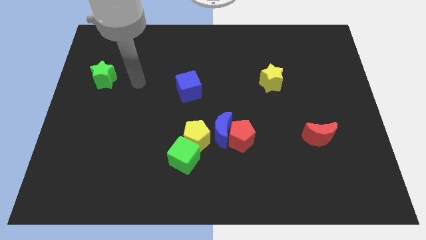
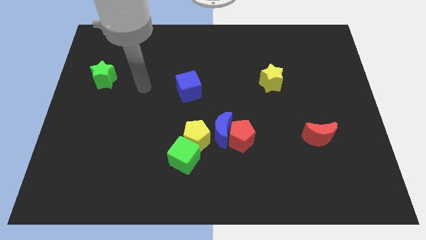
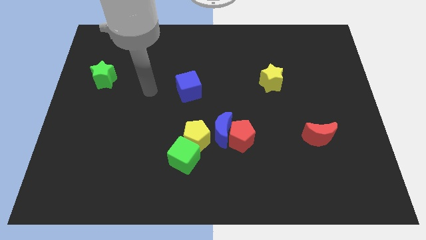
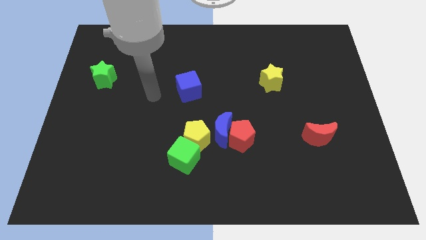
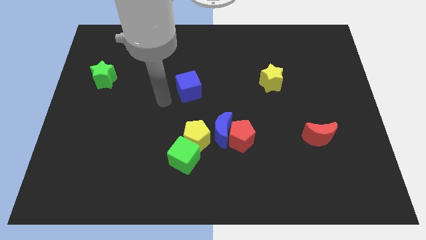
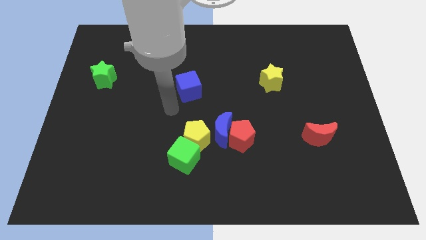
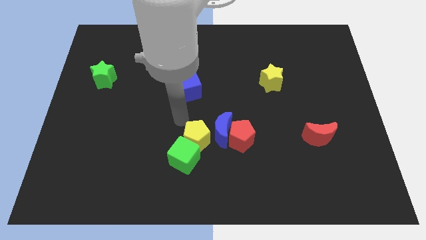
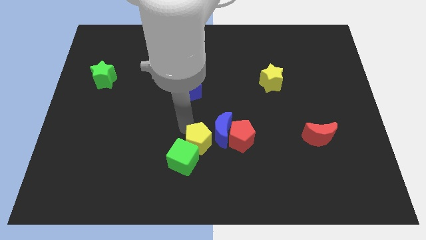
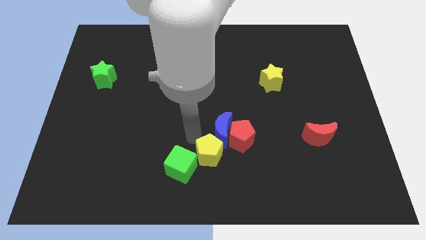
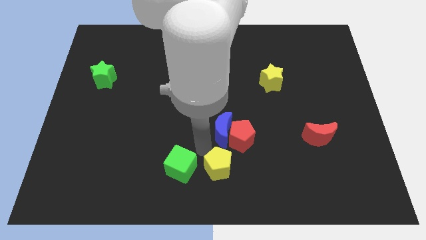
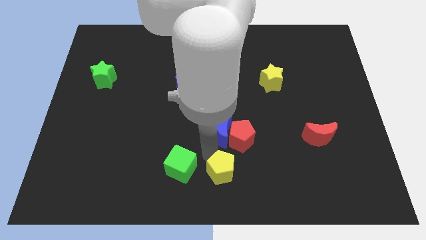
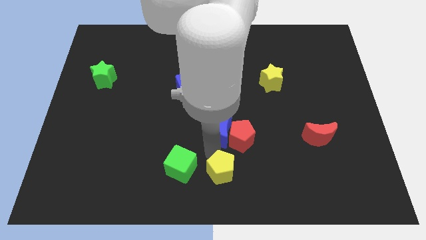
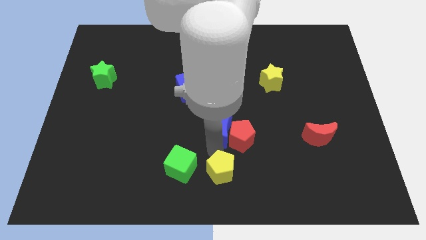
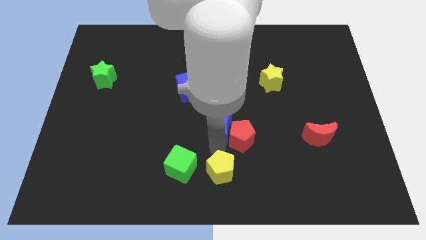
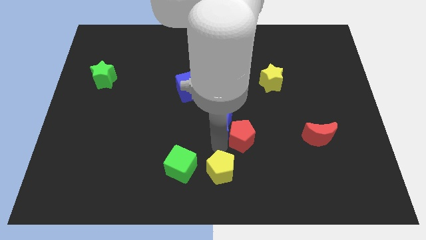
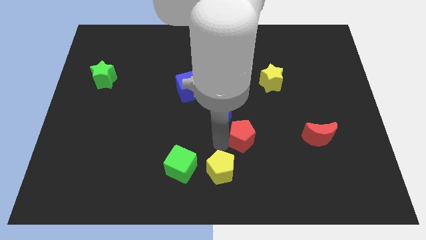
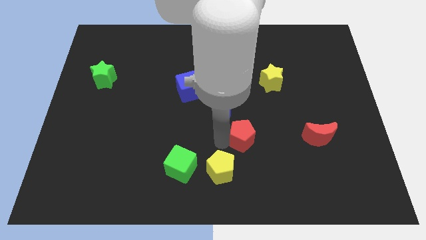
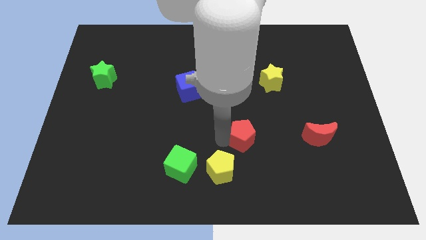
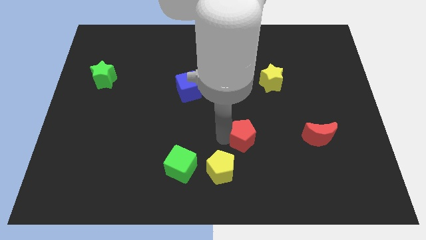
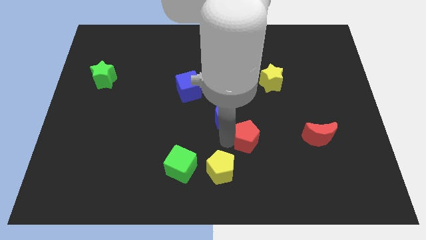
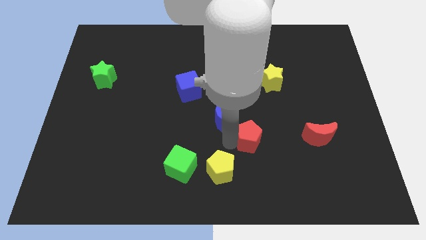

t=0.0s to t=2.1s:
separate the blue moon from the red pentagon and yellow pentagon

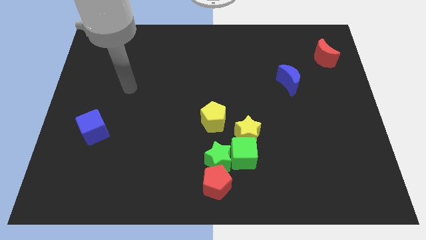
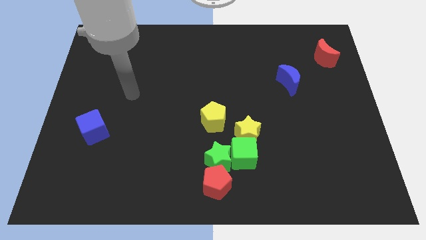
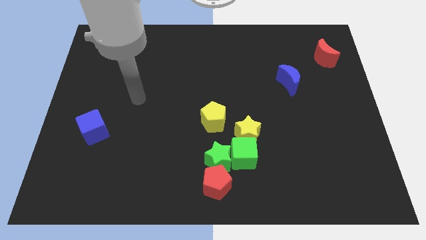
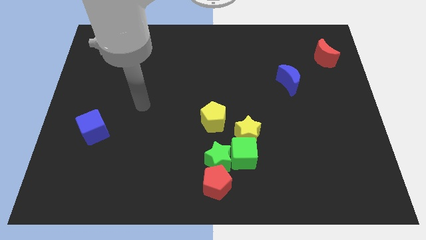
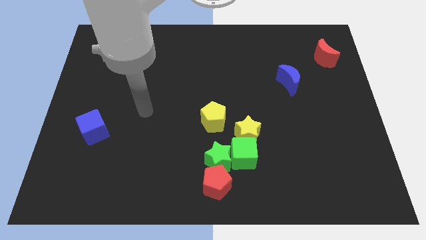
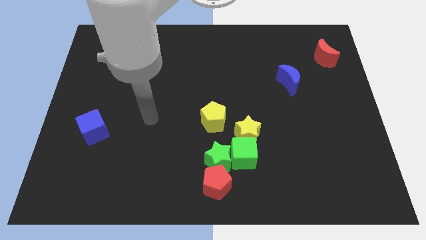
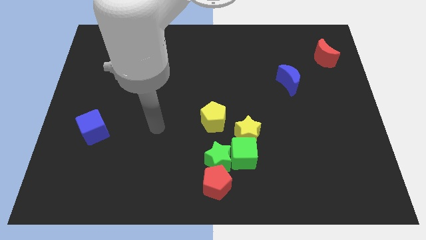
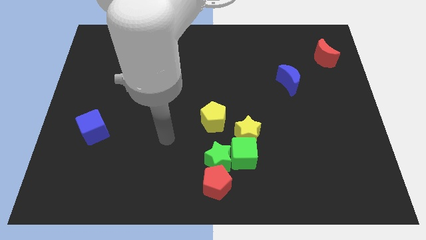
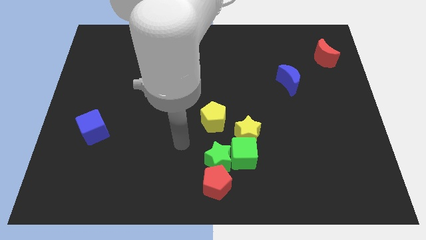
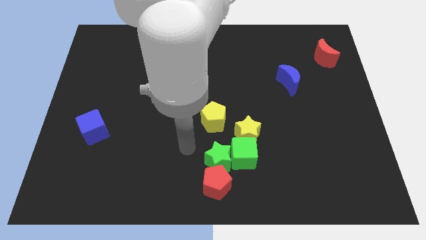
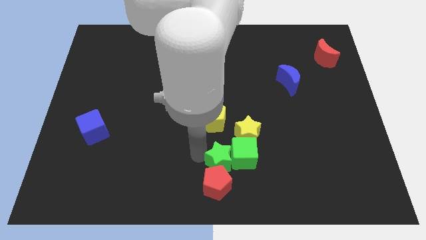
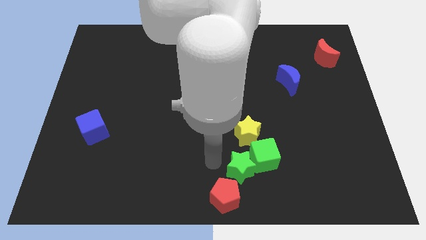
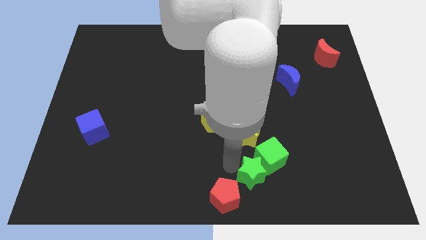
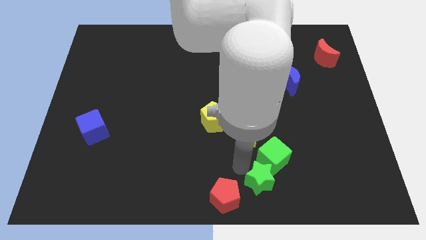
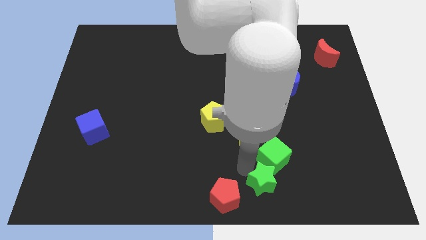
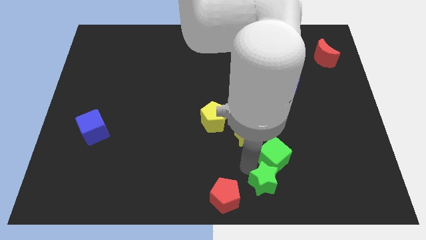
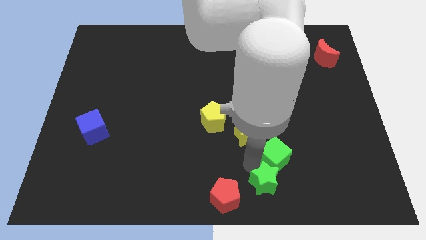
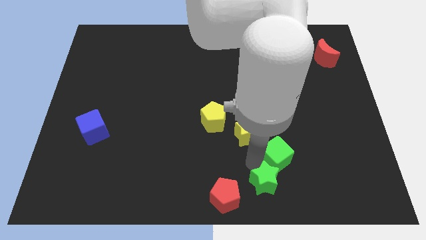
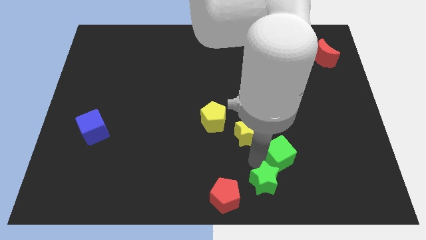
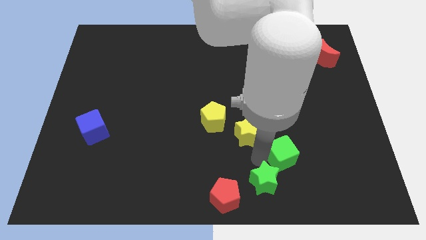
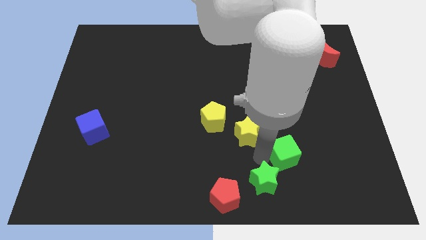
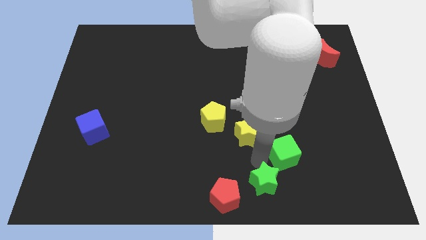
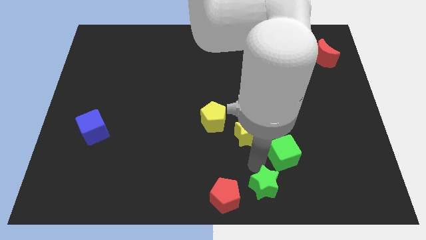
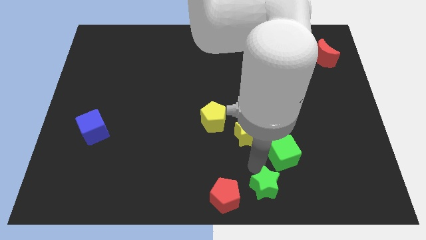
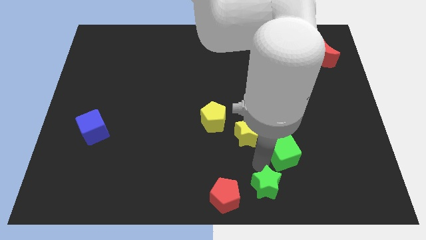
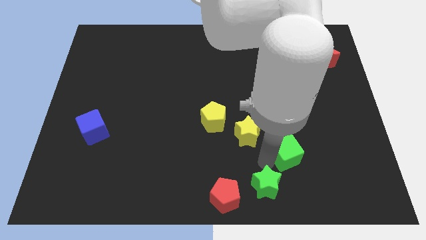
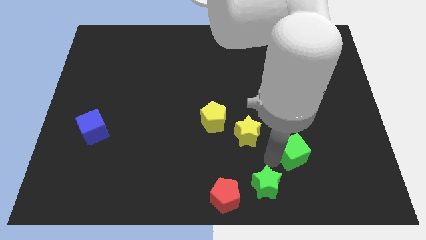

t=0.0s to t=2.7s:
separate the green cube from the yellow star, green star, and red pentagon

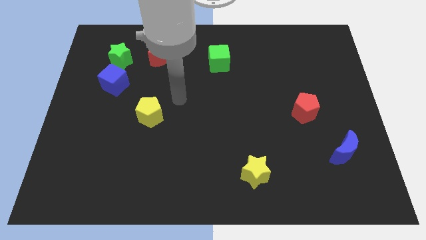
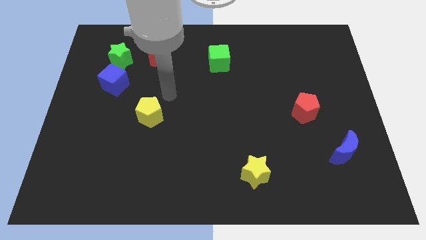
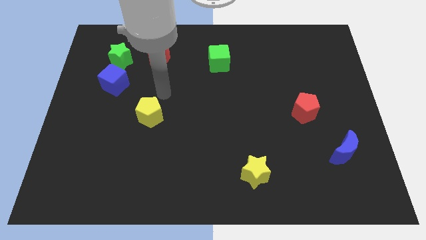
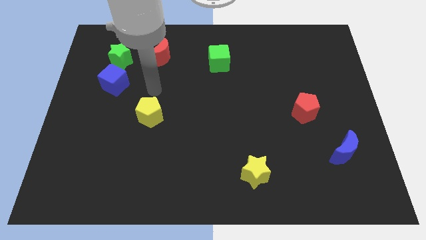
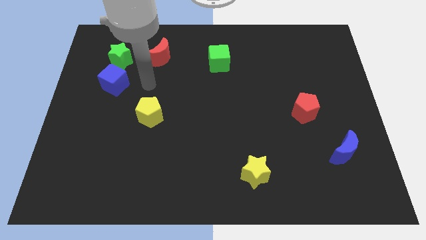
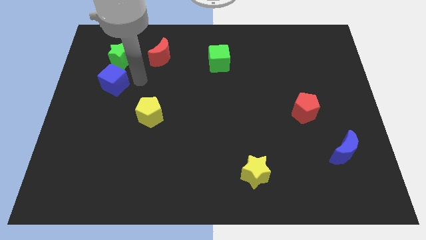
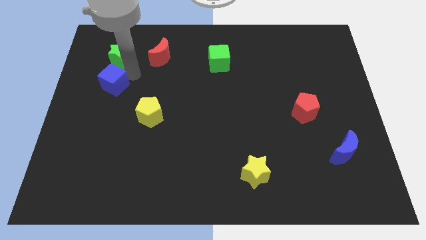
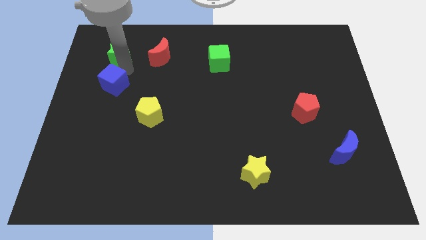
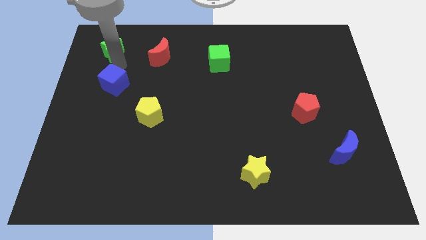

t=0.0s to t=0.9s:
pull the blue cube apart from the green star

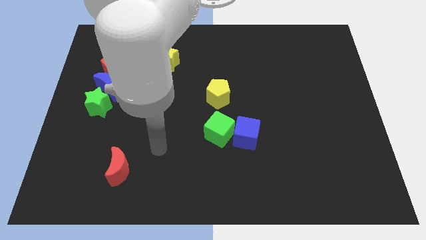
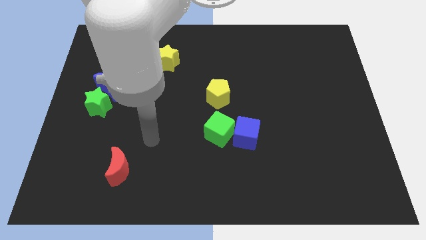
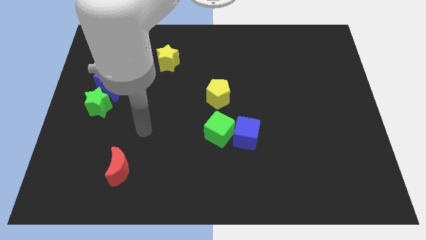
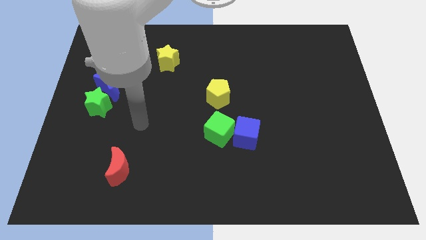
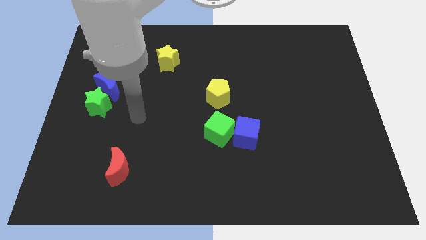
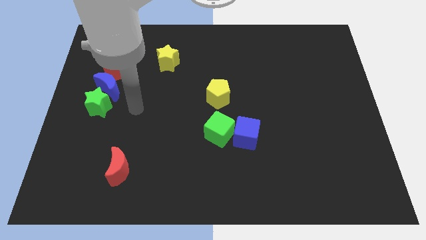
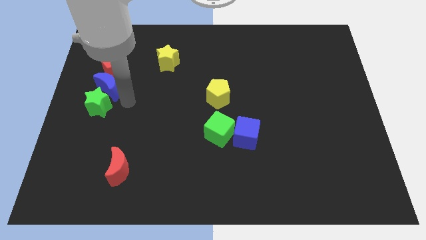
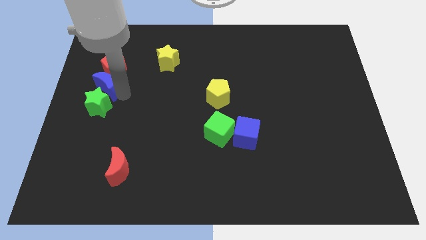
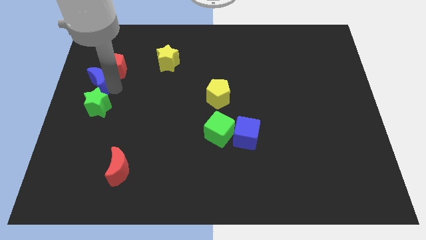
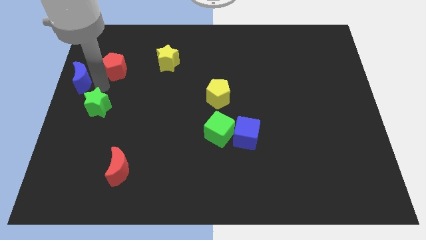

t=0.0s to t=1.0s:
separate the green star from the blue moon

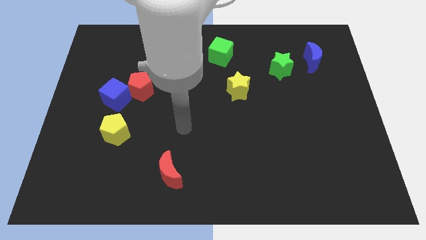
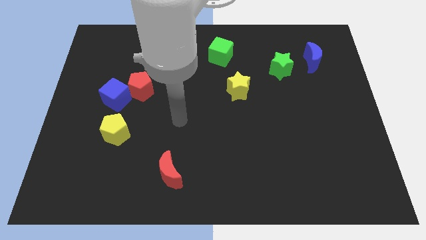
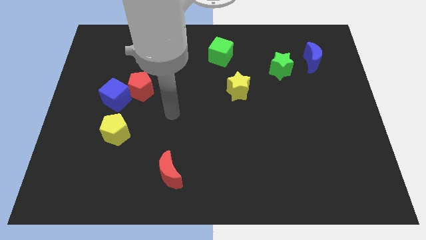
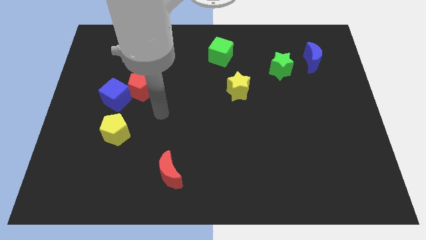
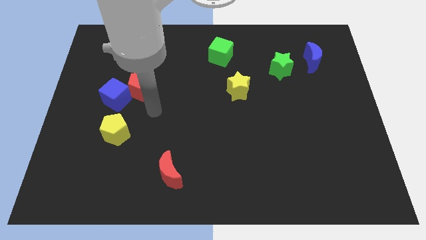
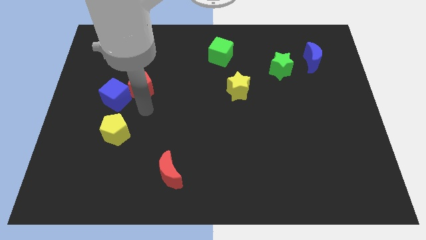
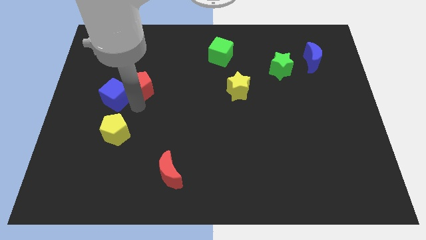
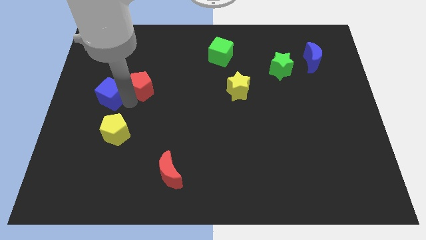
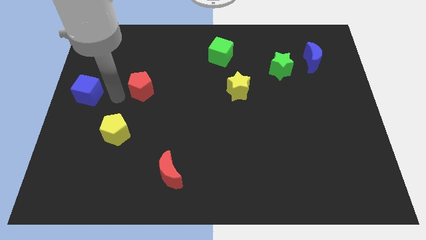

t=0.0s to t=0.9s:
pull the red pentagon apart from the blue cube

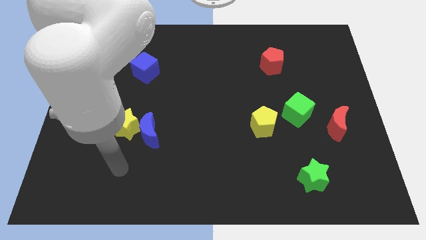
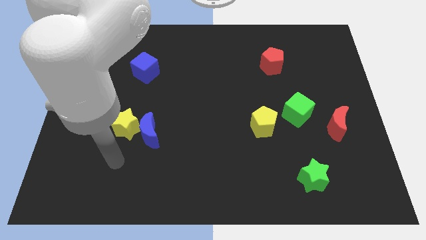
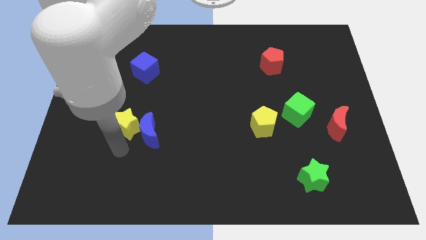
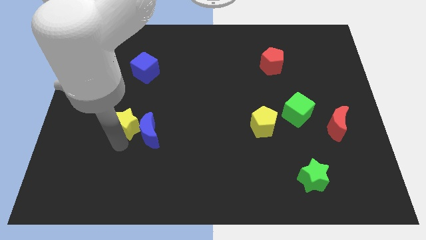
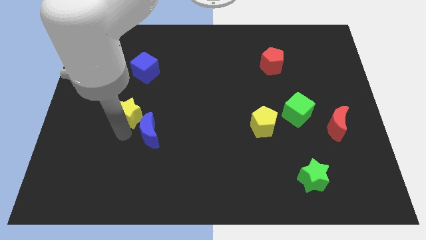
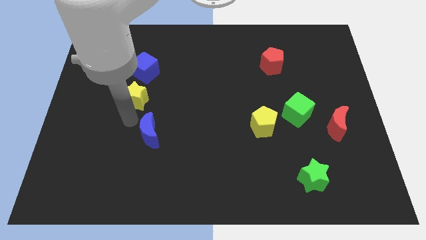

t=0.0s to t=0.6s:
move the blue moon away from the yellow star

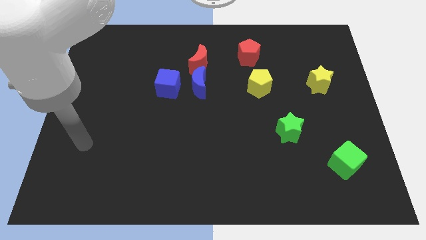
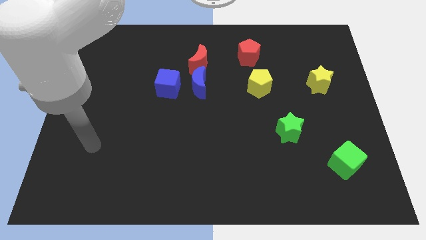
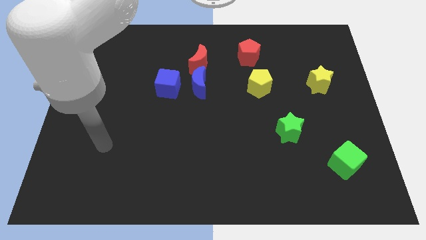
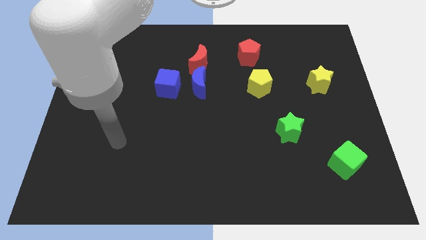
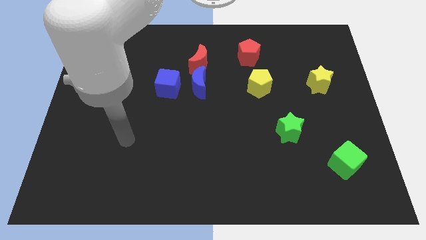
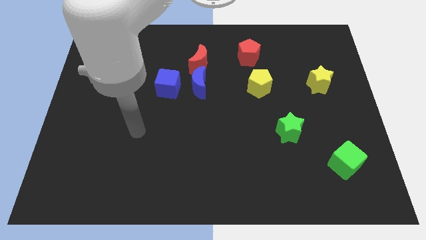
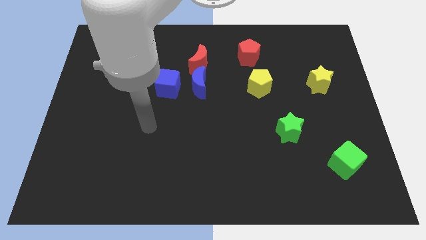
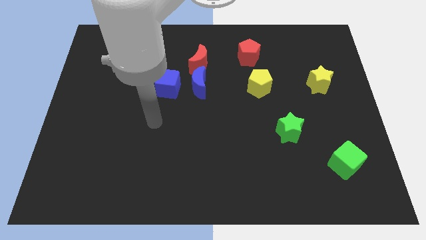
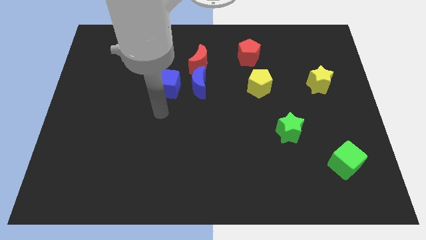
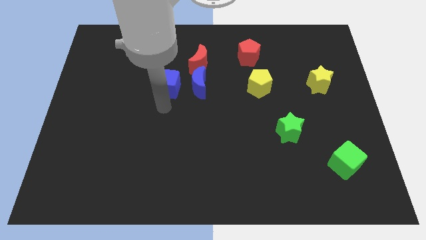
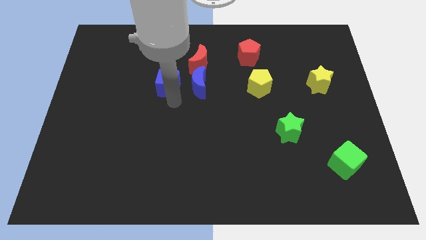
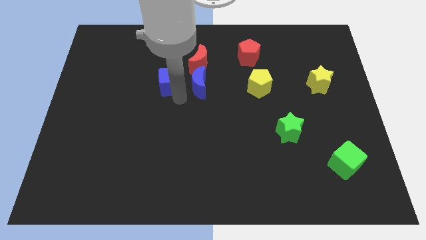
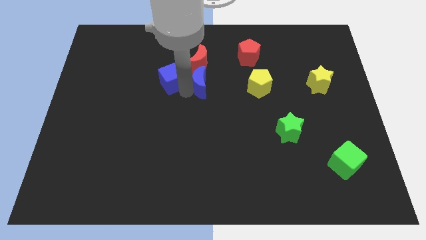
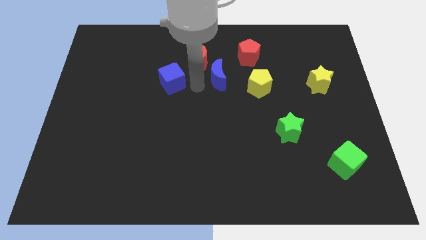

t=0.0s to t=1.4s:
separate the blue cube from the blue moon
